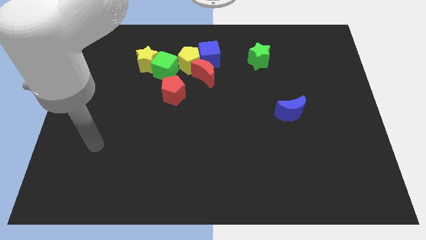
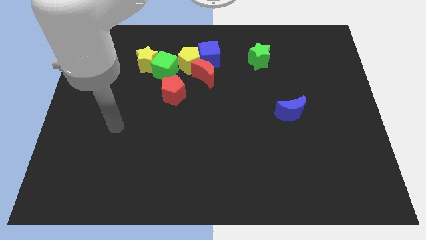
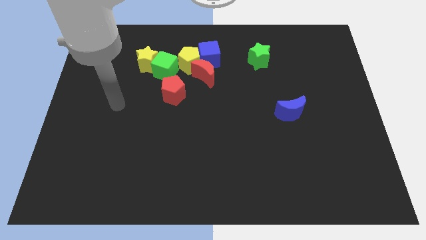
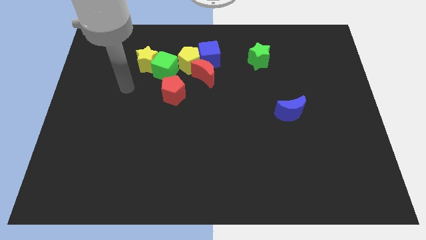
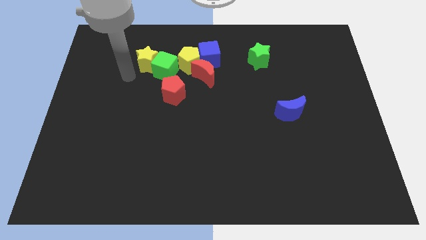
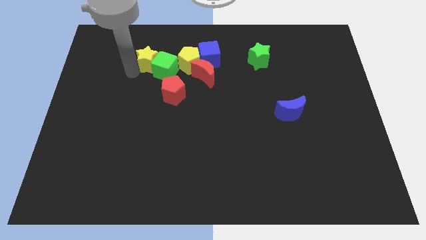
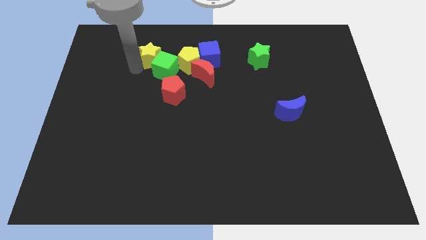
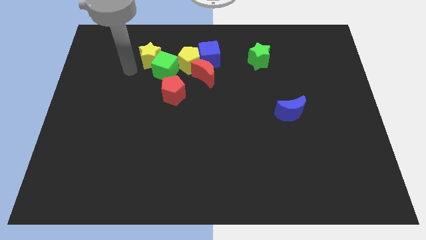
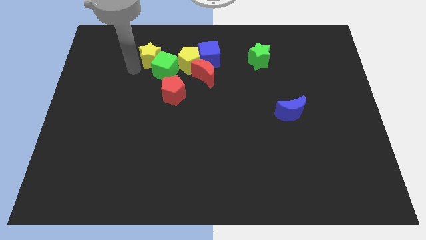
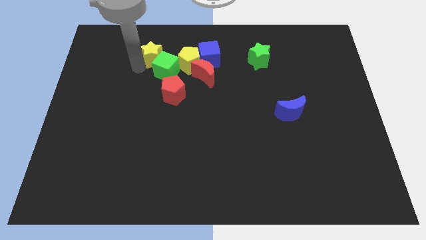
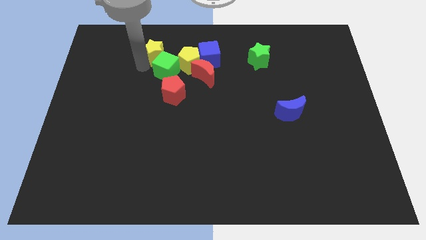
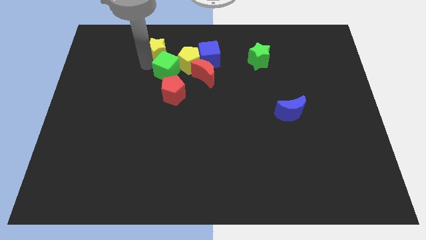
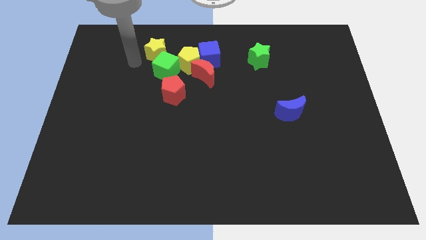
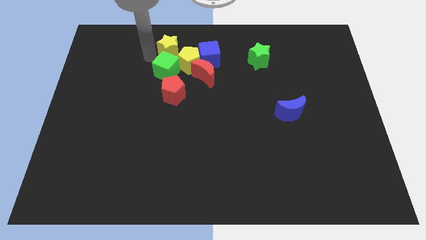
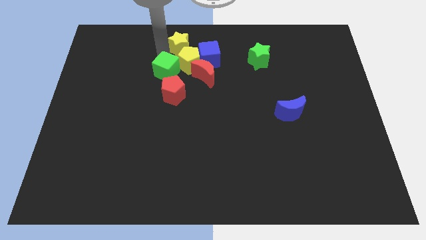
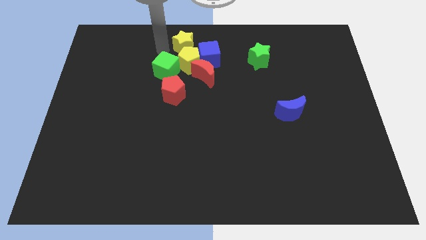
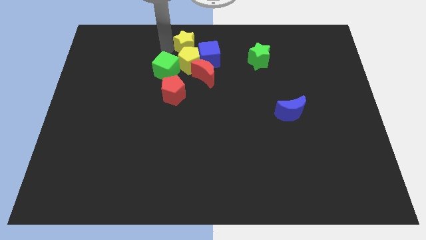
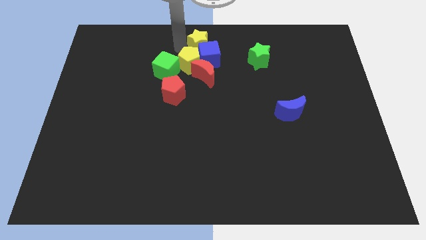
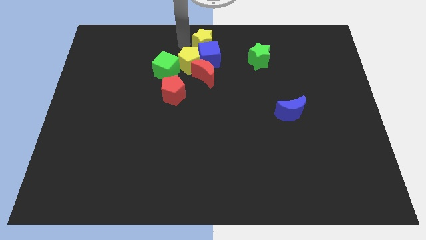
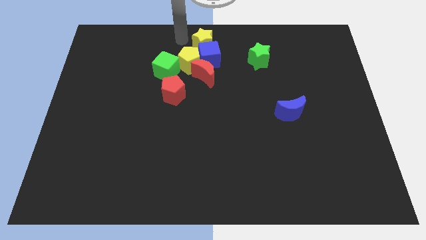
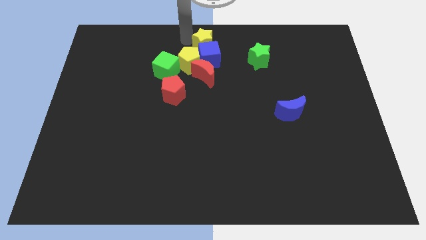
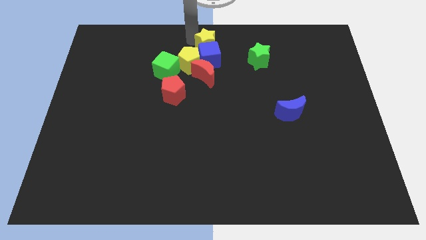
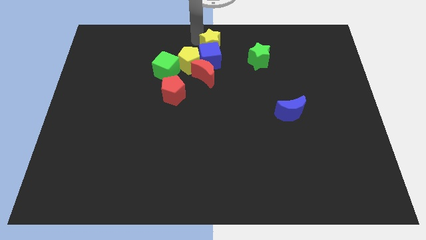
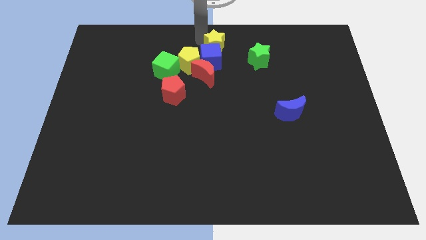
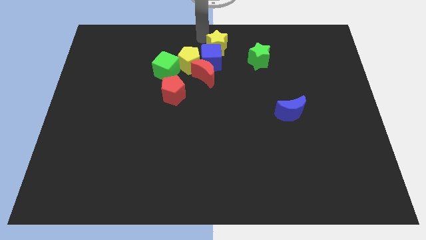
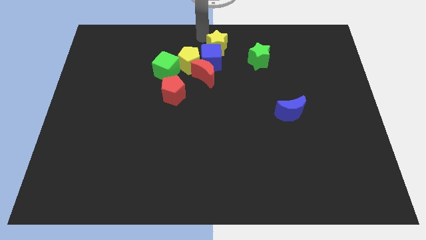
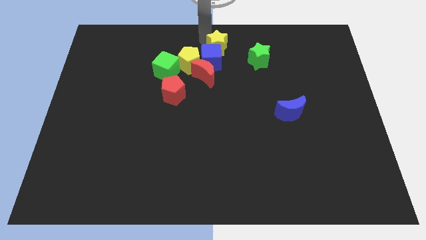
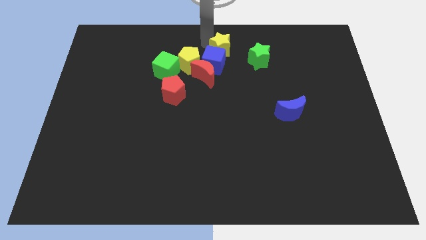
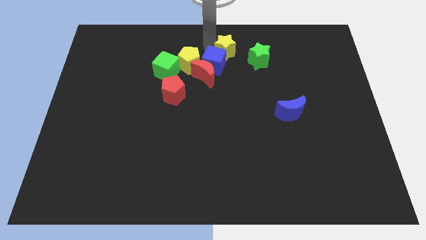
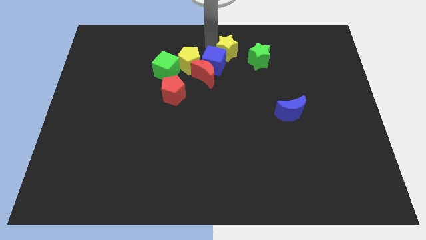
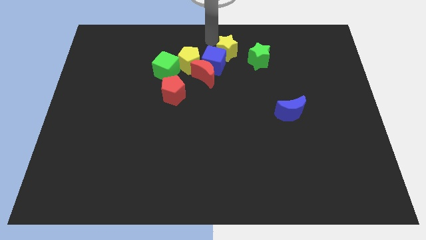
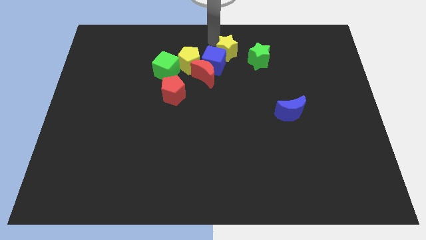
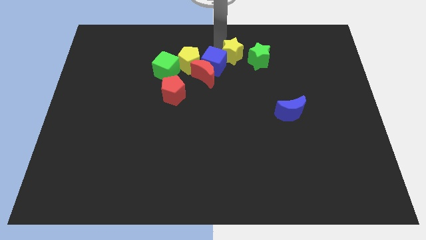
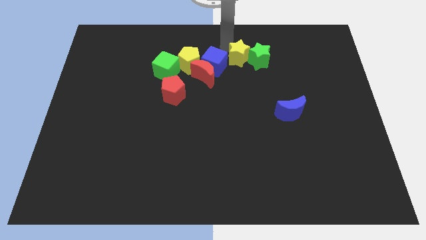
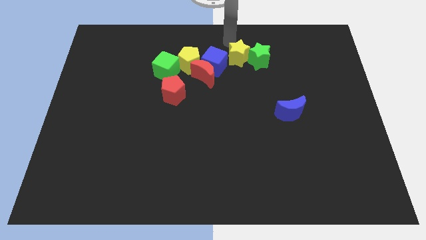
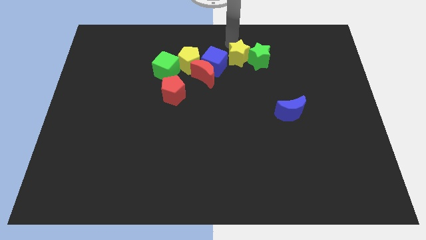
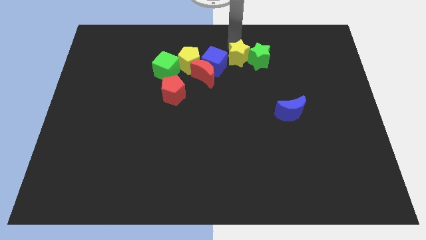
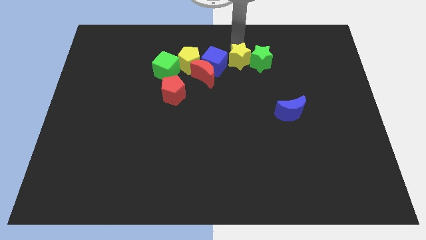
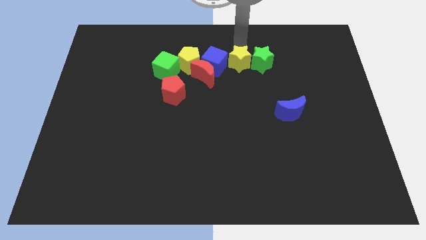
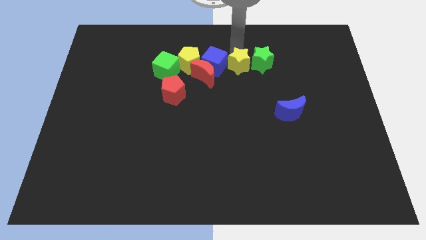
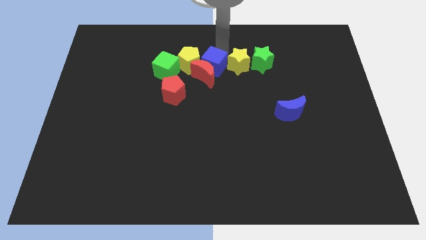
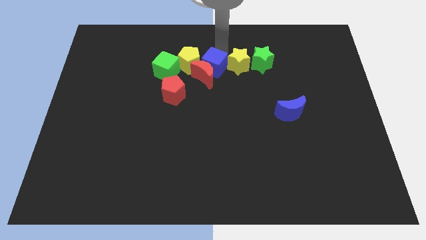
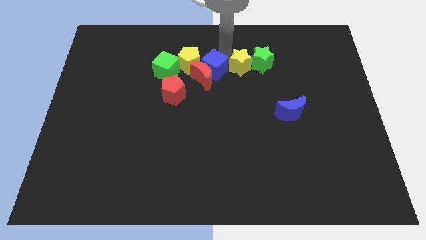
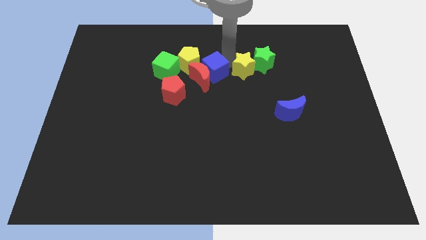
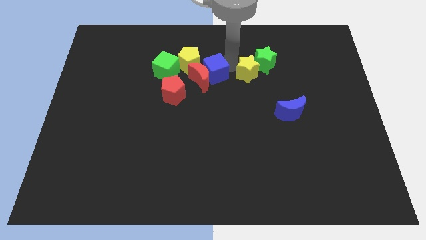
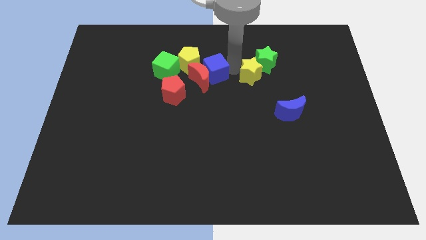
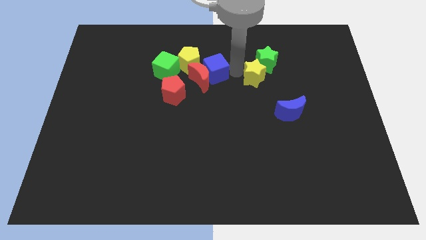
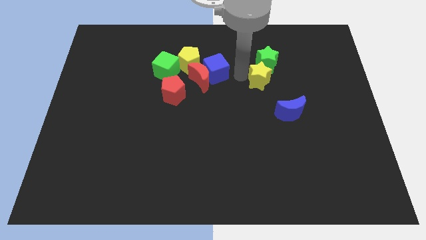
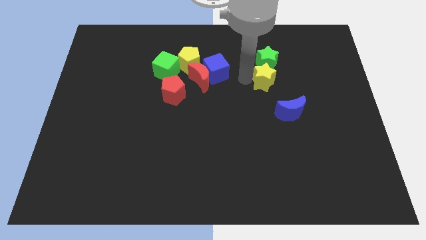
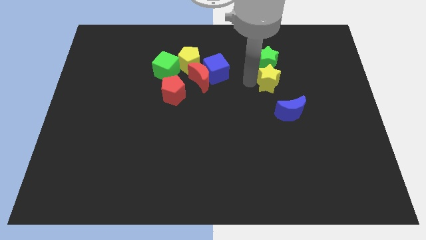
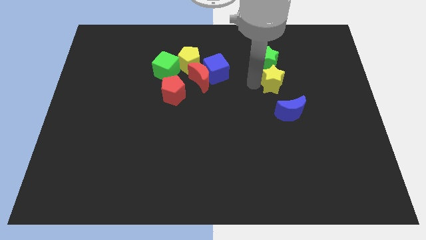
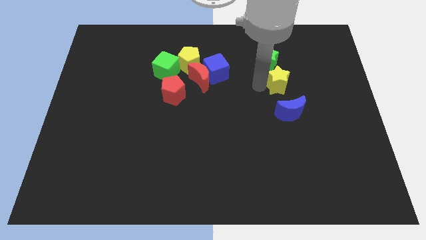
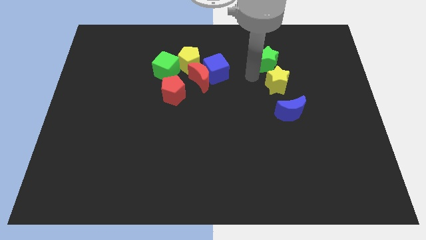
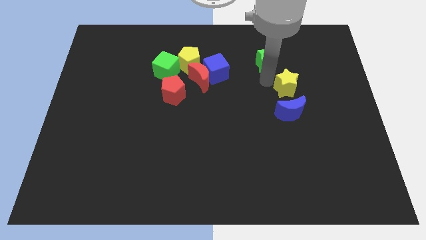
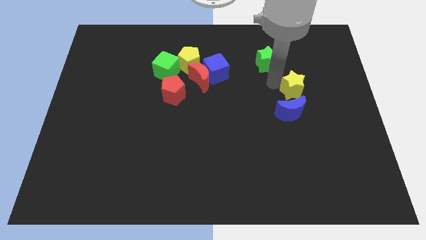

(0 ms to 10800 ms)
slide the yellow star to the top right of the blue moon
